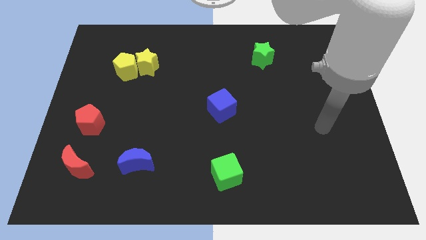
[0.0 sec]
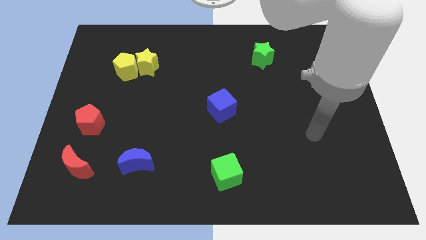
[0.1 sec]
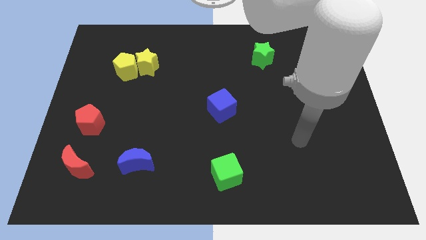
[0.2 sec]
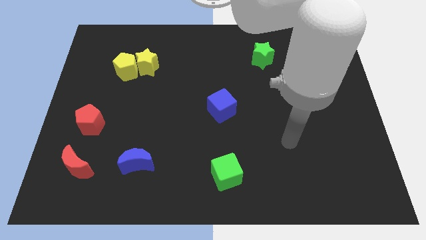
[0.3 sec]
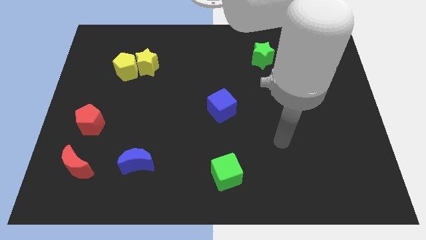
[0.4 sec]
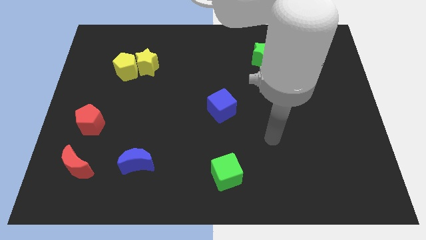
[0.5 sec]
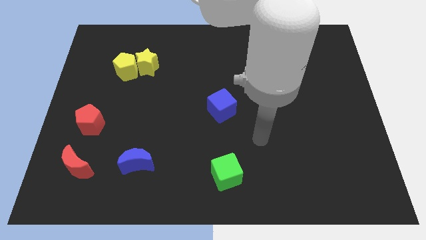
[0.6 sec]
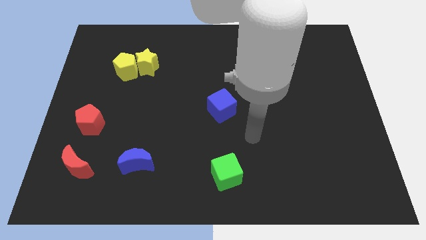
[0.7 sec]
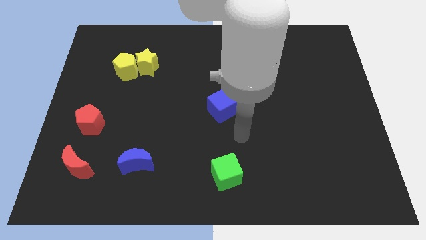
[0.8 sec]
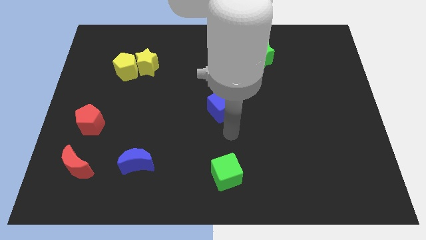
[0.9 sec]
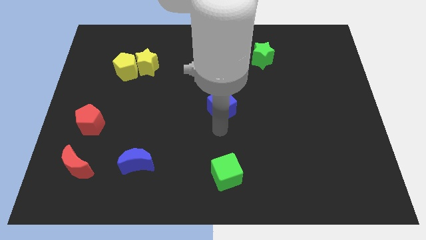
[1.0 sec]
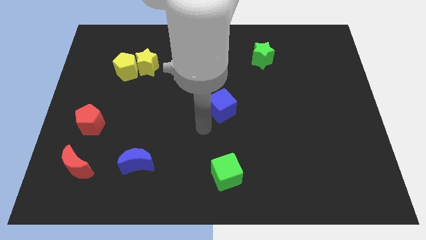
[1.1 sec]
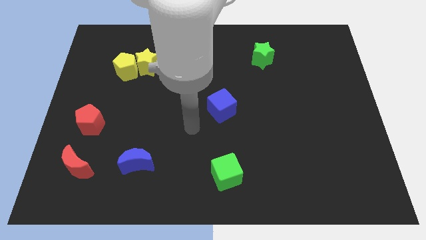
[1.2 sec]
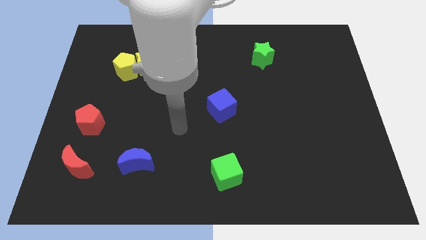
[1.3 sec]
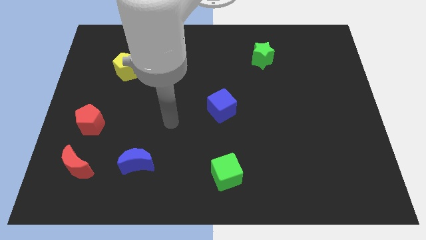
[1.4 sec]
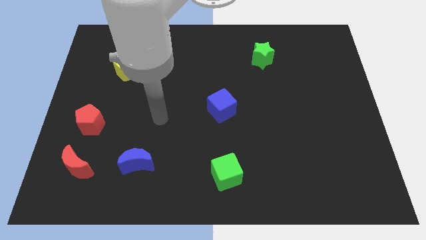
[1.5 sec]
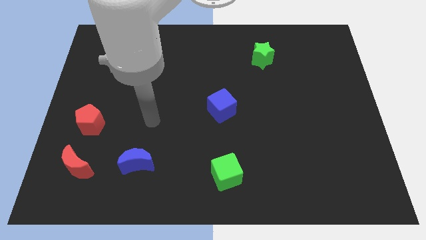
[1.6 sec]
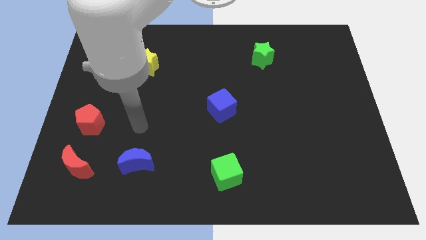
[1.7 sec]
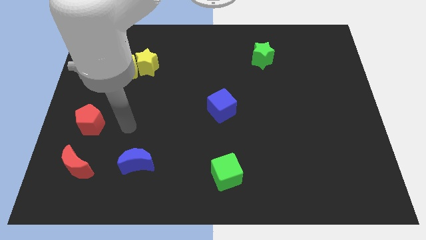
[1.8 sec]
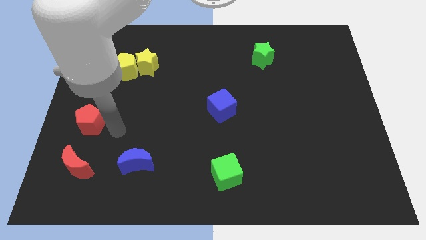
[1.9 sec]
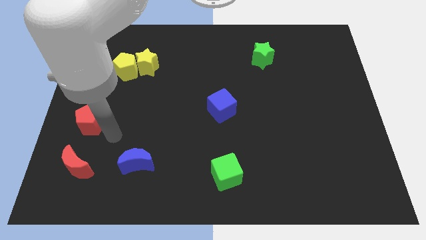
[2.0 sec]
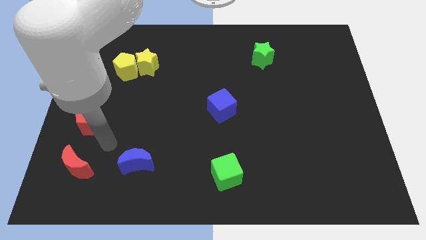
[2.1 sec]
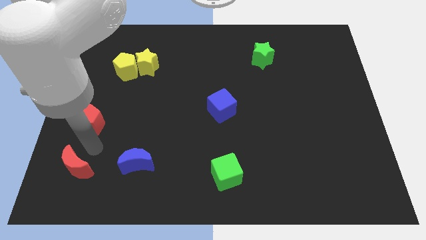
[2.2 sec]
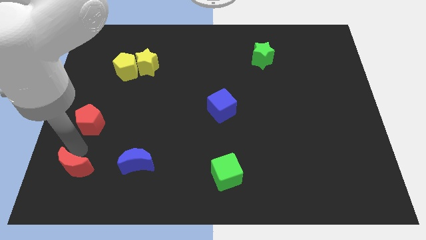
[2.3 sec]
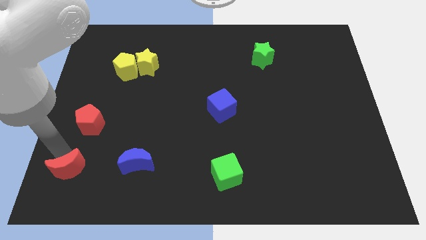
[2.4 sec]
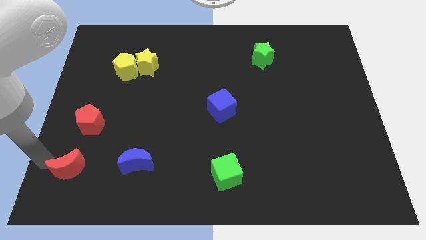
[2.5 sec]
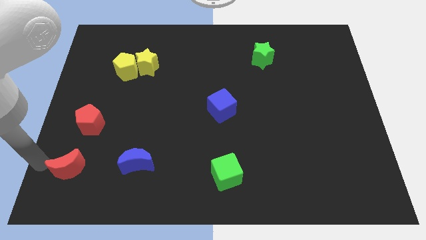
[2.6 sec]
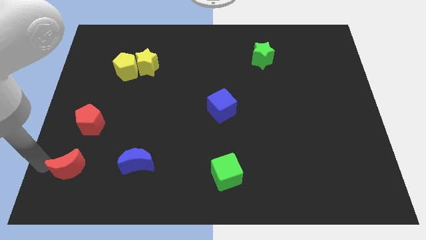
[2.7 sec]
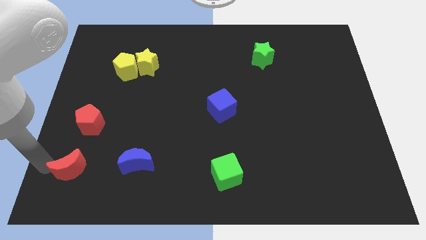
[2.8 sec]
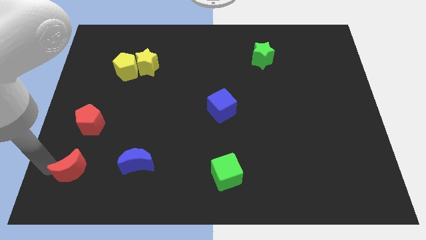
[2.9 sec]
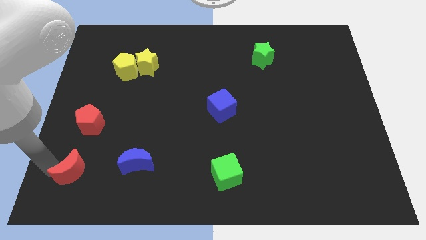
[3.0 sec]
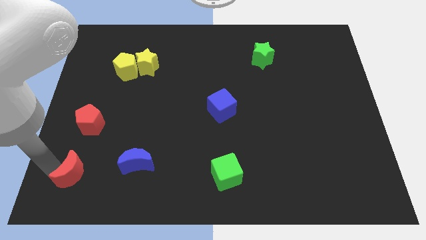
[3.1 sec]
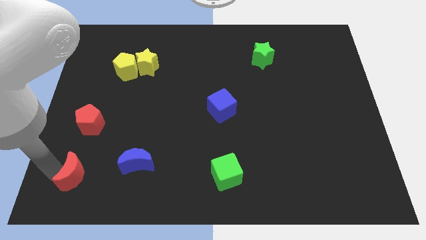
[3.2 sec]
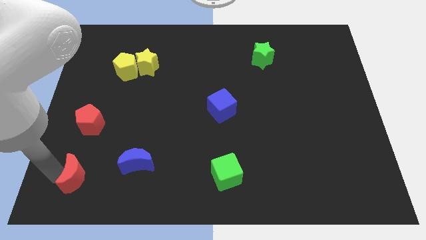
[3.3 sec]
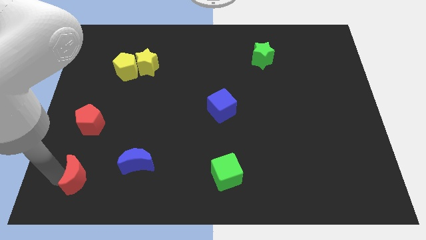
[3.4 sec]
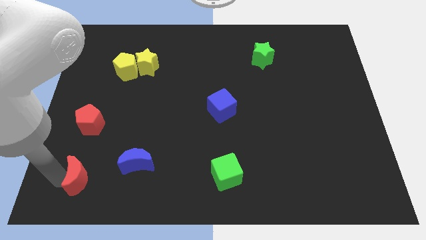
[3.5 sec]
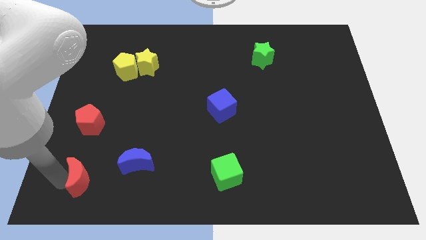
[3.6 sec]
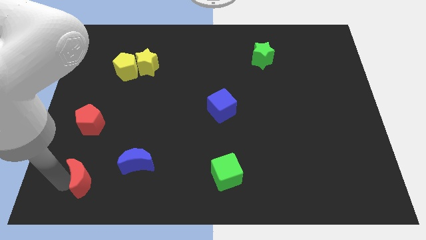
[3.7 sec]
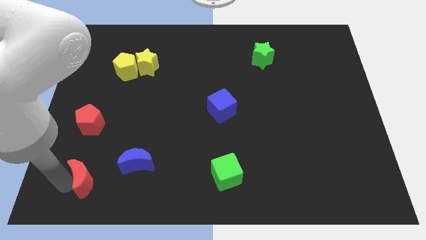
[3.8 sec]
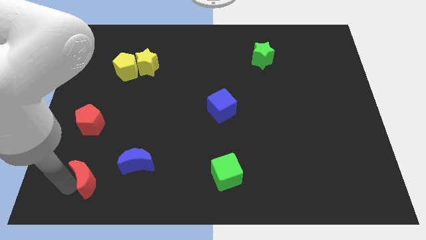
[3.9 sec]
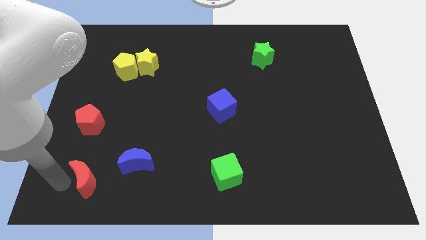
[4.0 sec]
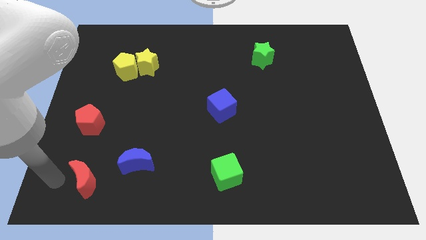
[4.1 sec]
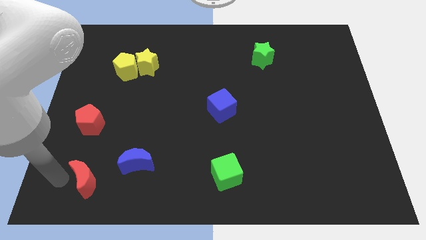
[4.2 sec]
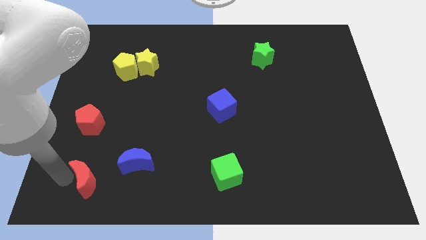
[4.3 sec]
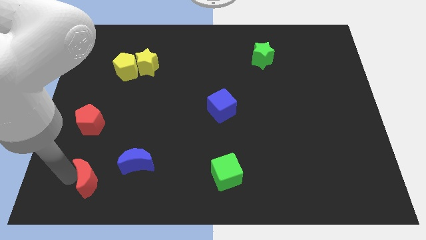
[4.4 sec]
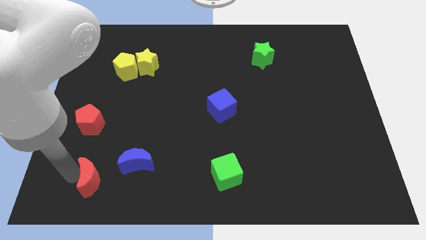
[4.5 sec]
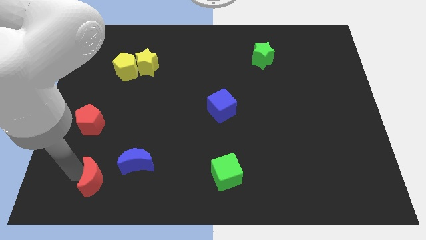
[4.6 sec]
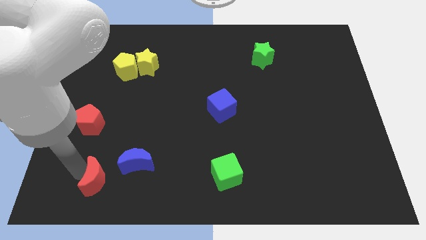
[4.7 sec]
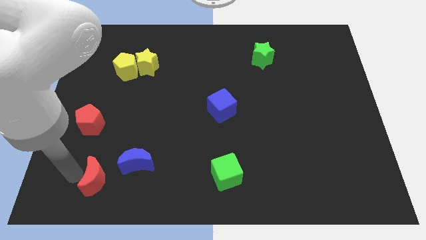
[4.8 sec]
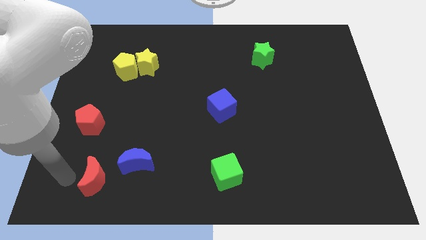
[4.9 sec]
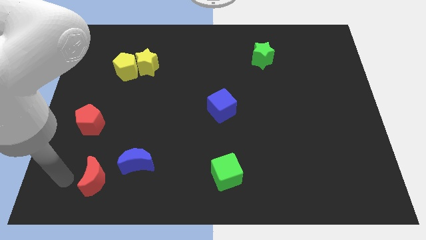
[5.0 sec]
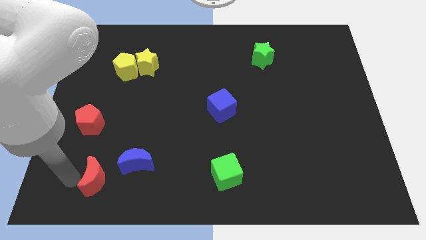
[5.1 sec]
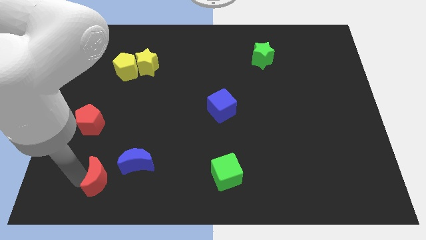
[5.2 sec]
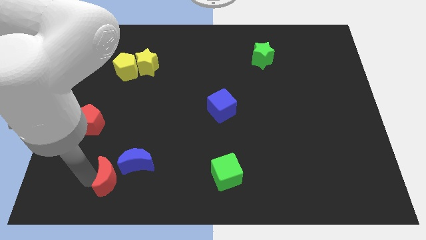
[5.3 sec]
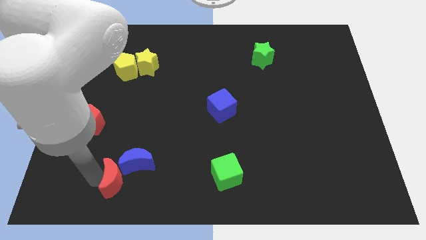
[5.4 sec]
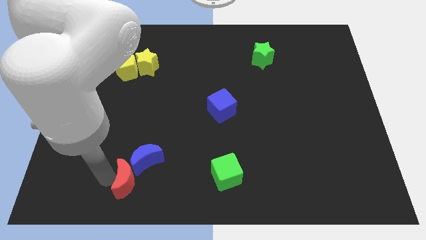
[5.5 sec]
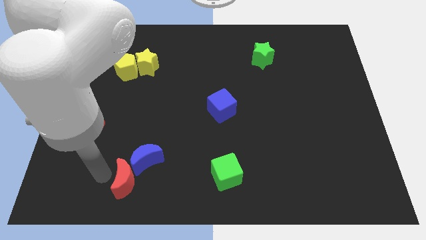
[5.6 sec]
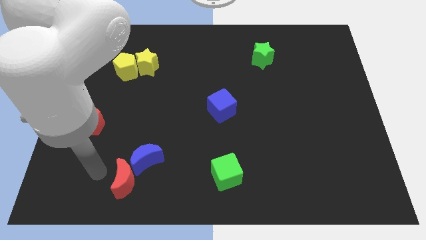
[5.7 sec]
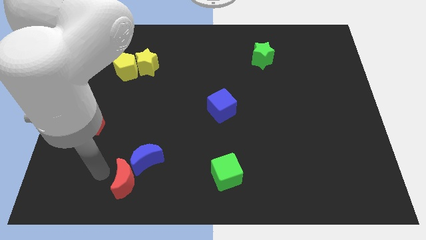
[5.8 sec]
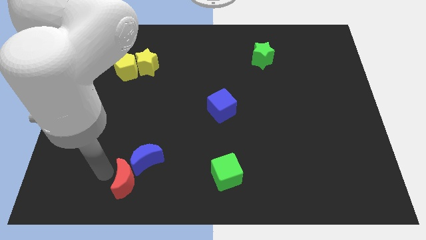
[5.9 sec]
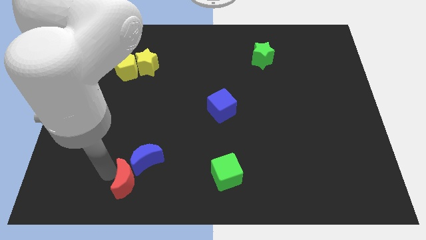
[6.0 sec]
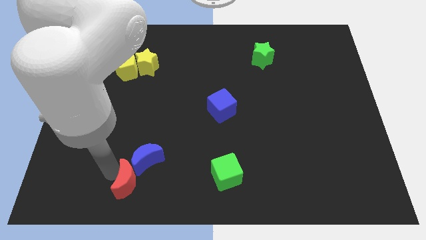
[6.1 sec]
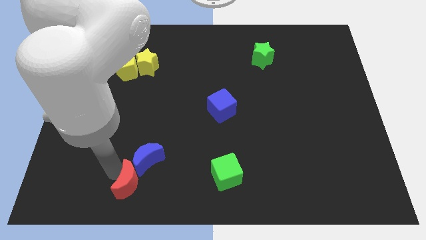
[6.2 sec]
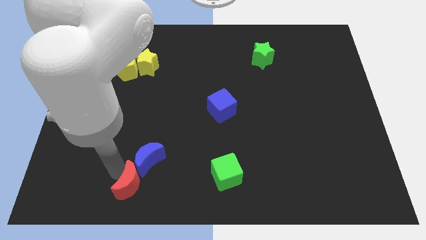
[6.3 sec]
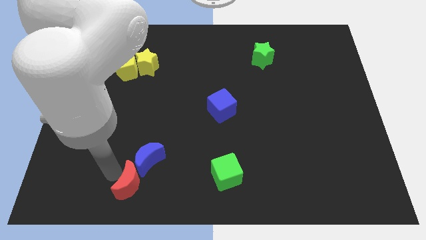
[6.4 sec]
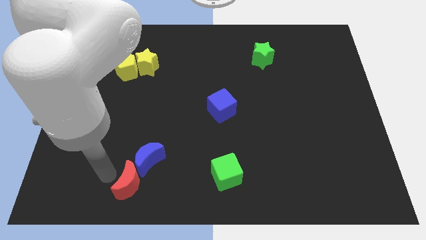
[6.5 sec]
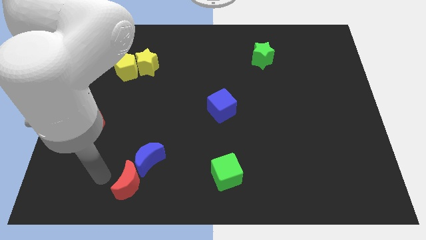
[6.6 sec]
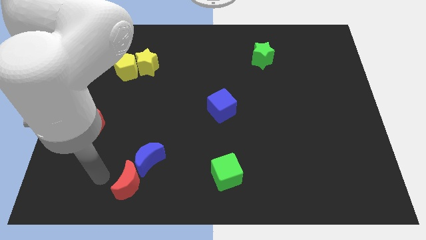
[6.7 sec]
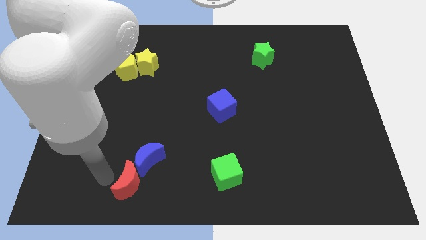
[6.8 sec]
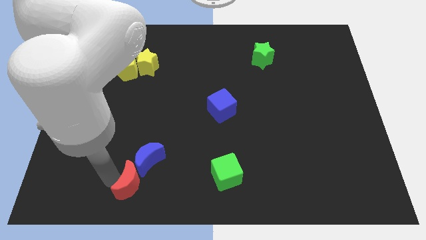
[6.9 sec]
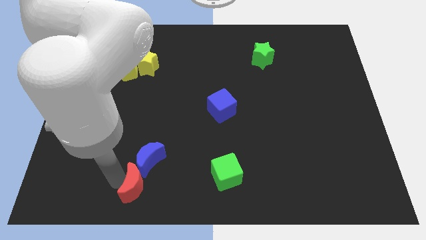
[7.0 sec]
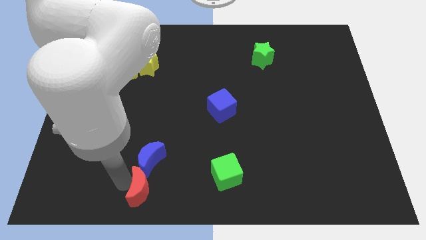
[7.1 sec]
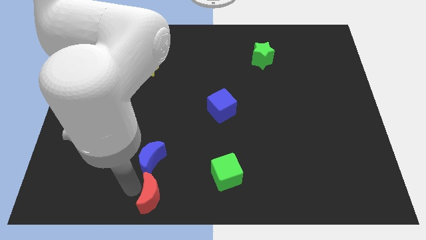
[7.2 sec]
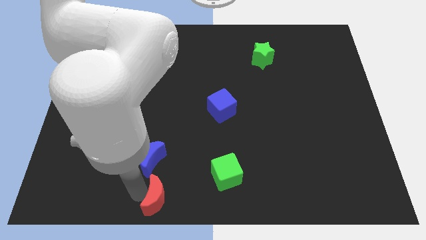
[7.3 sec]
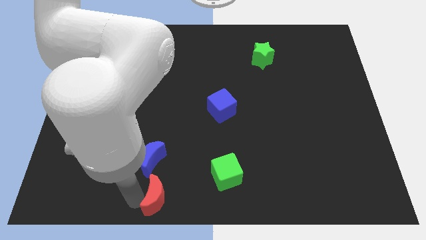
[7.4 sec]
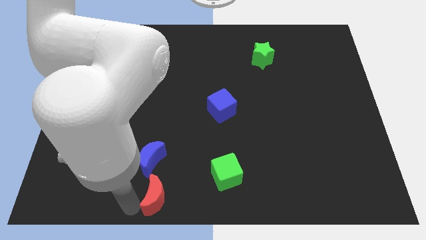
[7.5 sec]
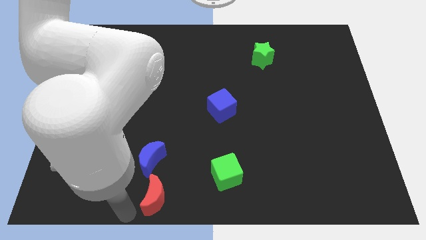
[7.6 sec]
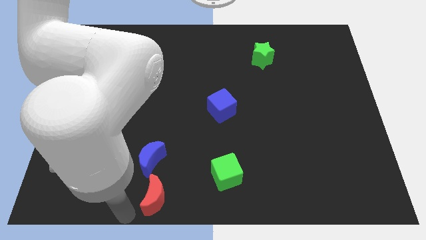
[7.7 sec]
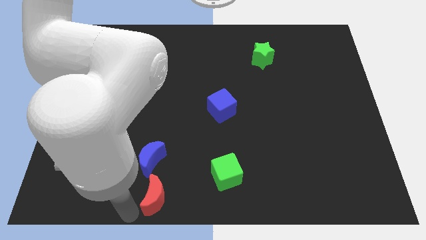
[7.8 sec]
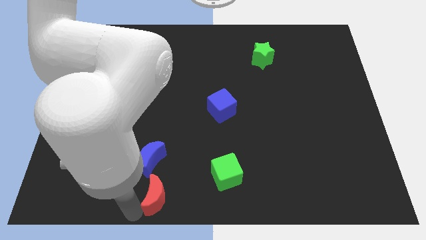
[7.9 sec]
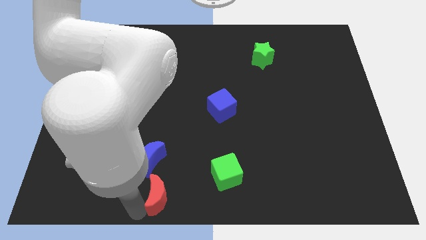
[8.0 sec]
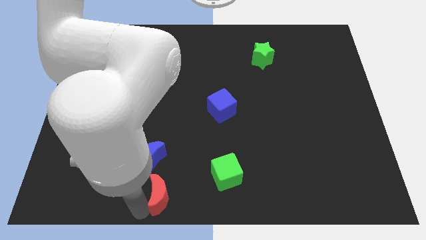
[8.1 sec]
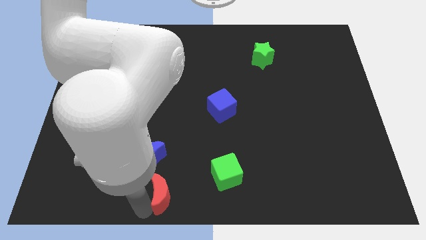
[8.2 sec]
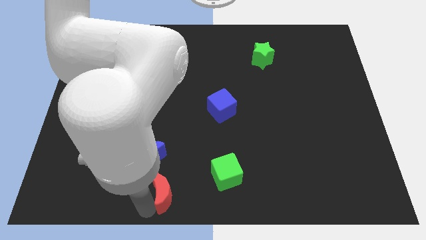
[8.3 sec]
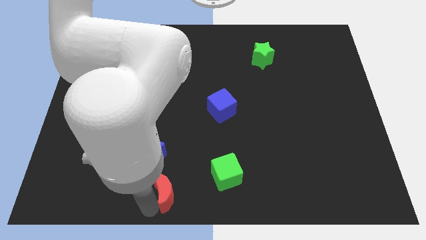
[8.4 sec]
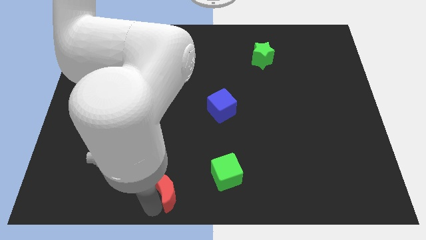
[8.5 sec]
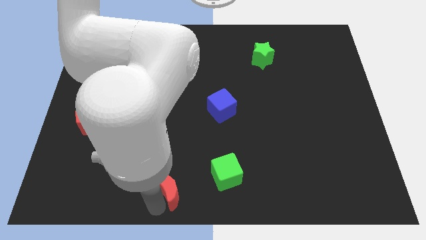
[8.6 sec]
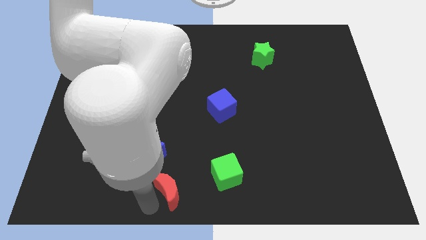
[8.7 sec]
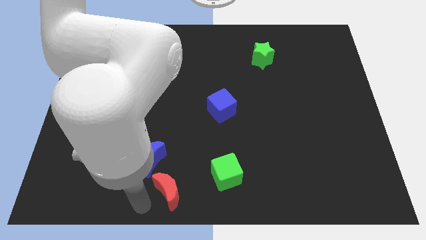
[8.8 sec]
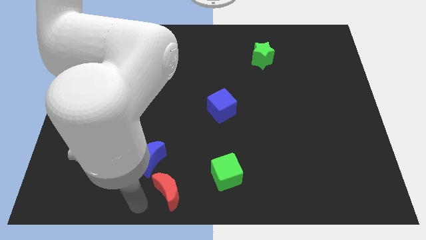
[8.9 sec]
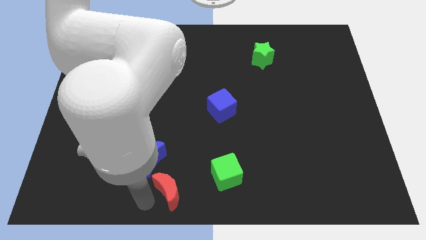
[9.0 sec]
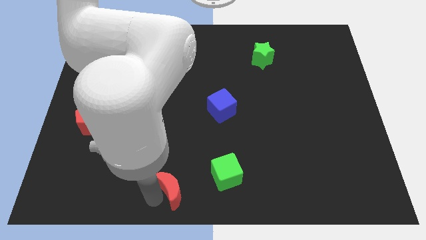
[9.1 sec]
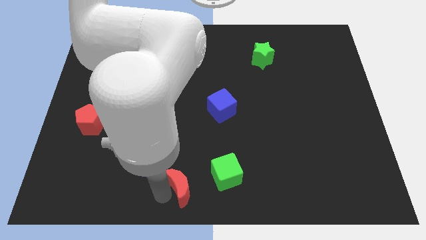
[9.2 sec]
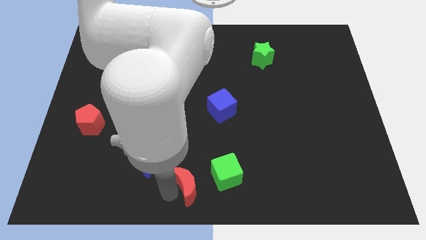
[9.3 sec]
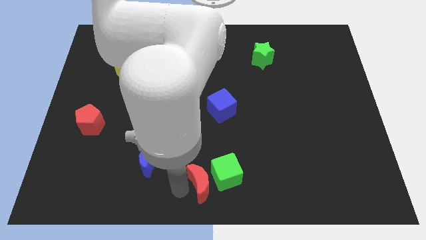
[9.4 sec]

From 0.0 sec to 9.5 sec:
slide the red moon towards the green cube
